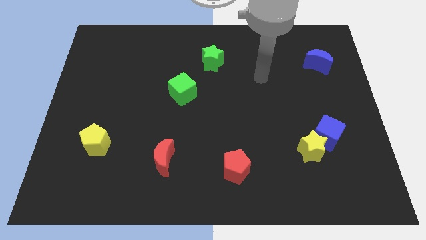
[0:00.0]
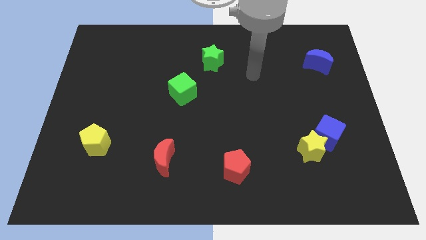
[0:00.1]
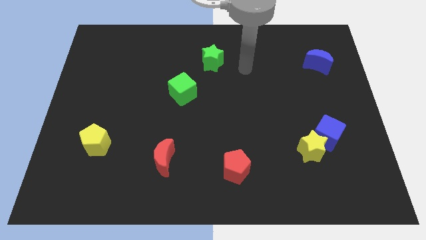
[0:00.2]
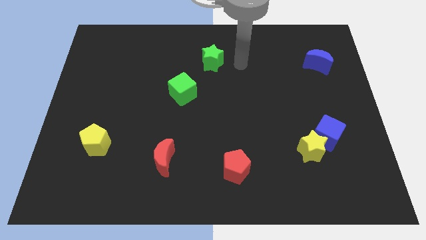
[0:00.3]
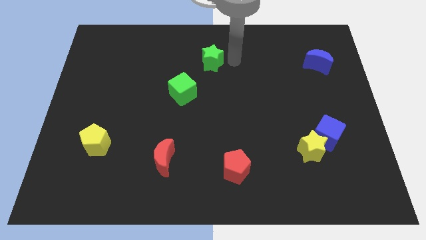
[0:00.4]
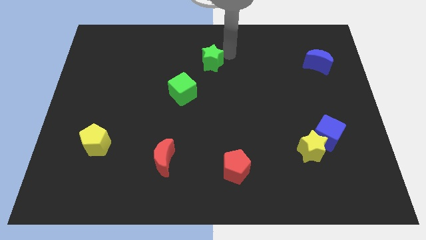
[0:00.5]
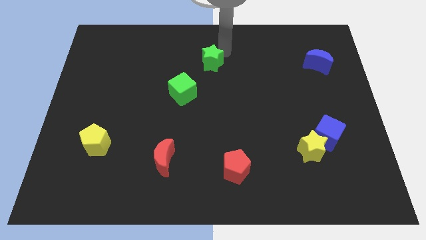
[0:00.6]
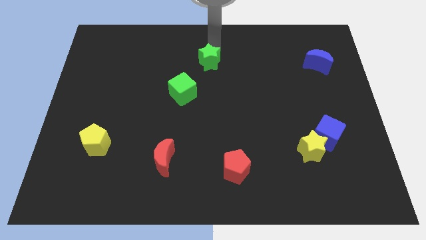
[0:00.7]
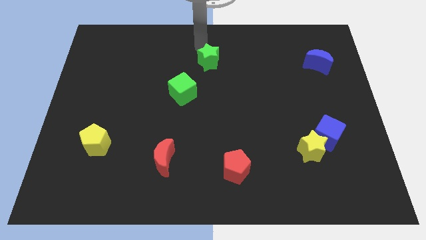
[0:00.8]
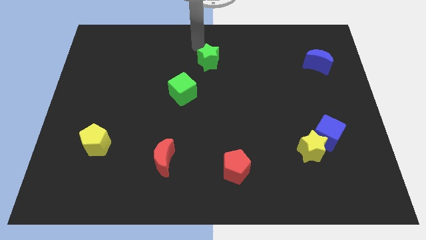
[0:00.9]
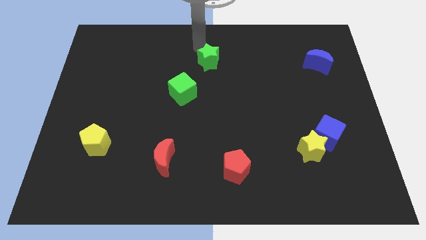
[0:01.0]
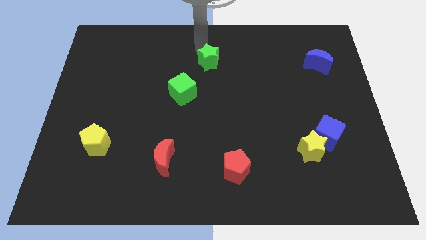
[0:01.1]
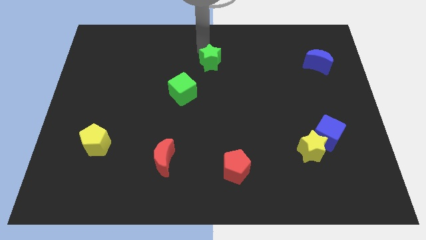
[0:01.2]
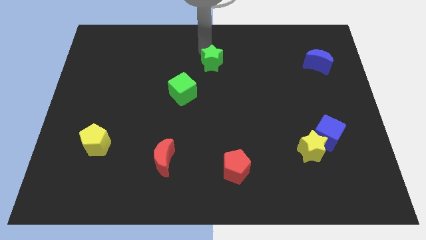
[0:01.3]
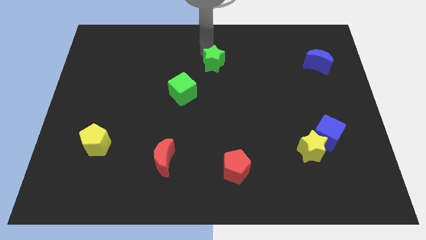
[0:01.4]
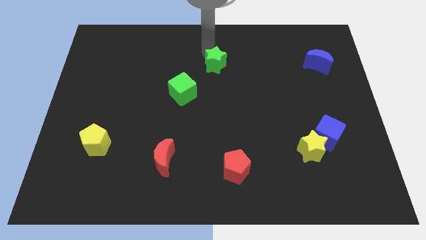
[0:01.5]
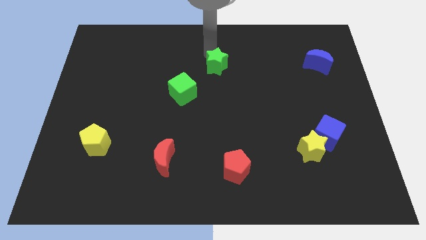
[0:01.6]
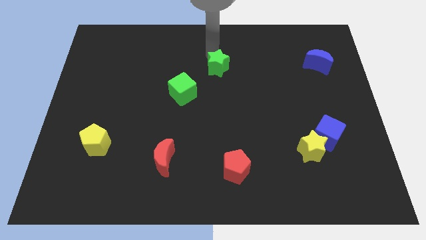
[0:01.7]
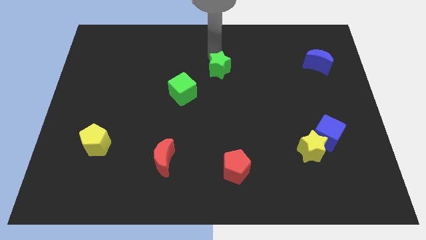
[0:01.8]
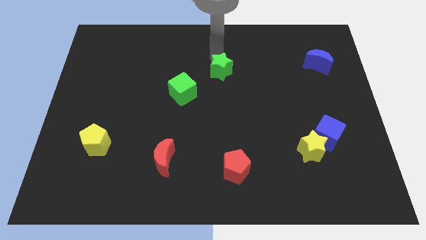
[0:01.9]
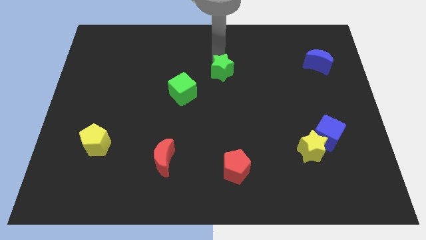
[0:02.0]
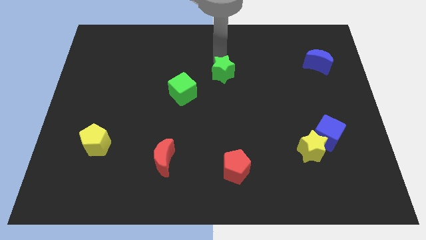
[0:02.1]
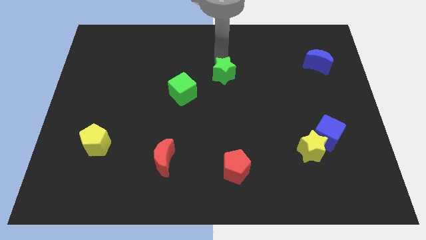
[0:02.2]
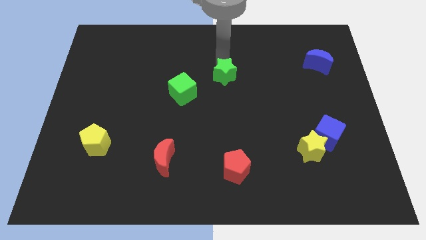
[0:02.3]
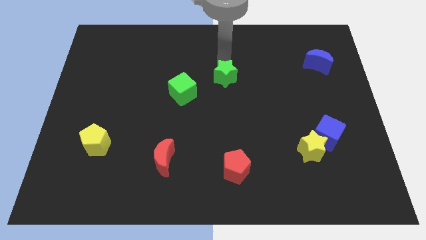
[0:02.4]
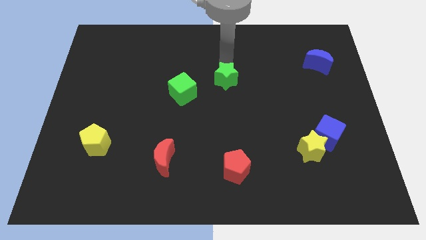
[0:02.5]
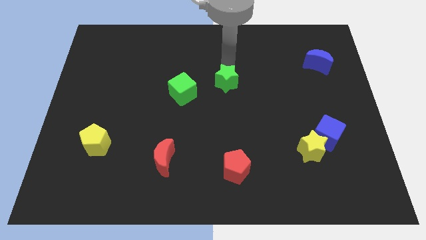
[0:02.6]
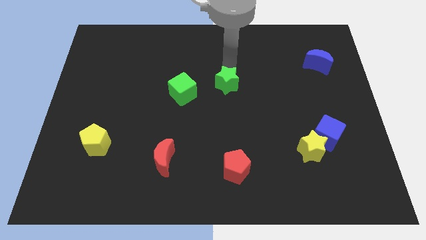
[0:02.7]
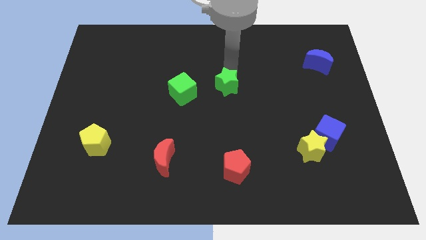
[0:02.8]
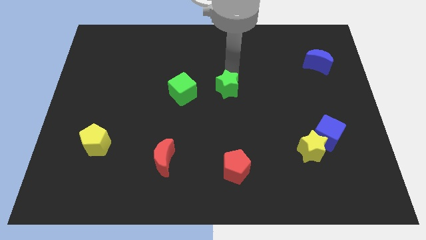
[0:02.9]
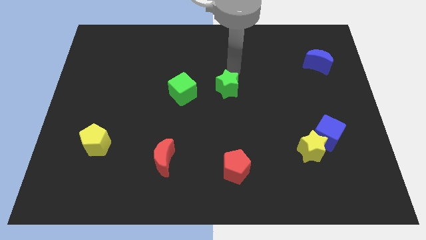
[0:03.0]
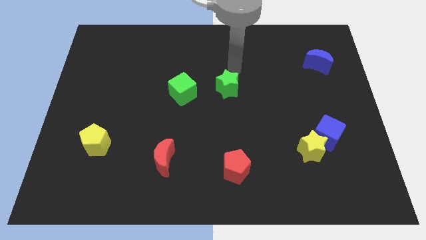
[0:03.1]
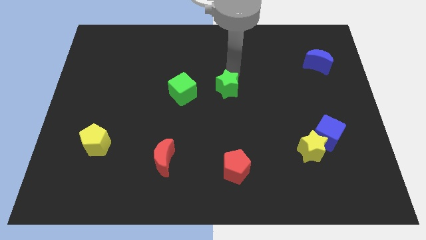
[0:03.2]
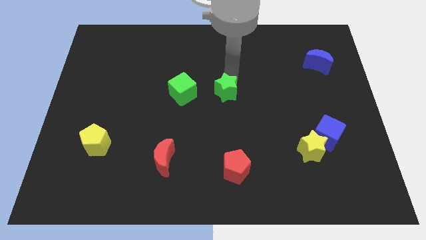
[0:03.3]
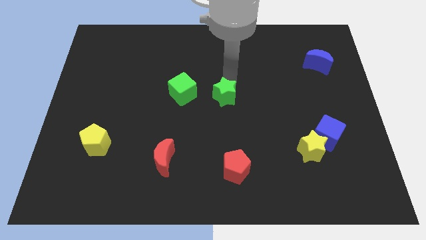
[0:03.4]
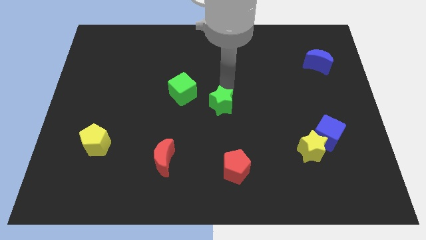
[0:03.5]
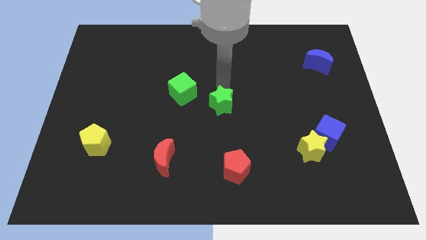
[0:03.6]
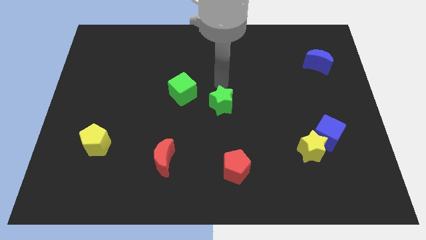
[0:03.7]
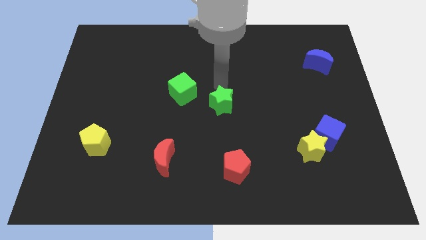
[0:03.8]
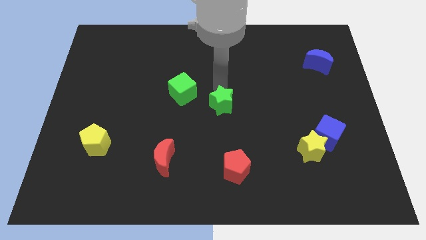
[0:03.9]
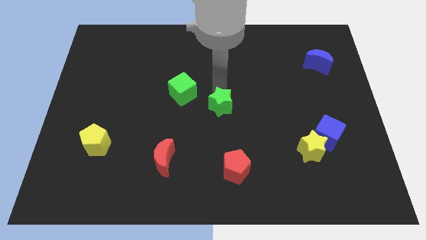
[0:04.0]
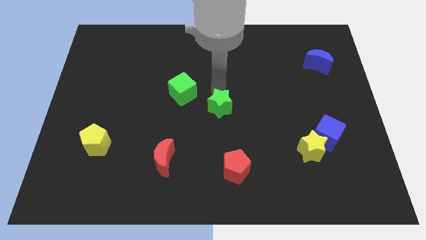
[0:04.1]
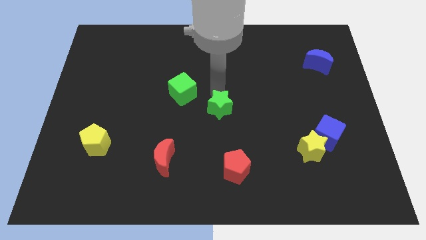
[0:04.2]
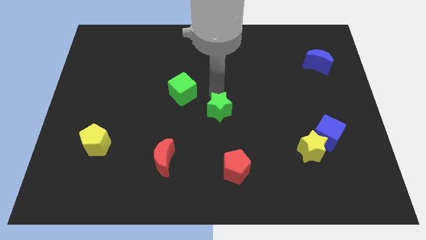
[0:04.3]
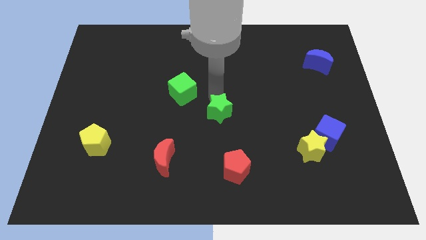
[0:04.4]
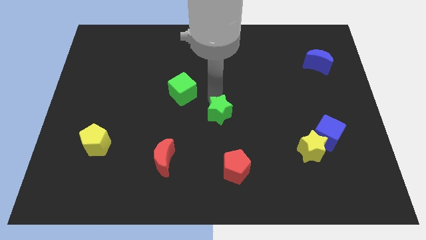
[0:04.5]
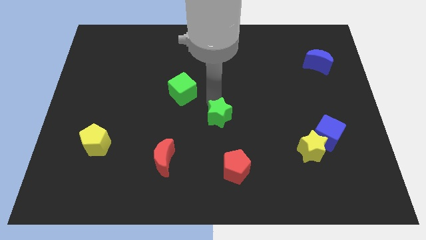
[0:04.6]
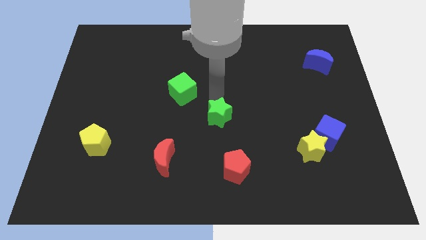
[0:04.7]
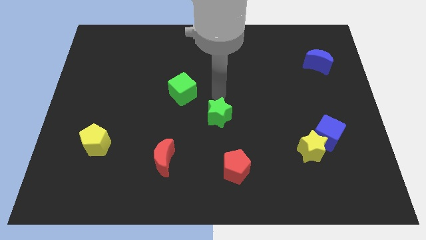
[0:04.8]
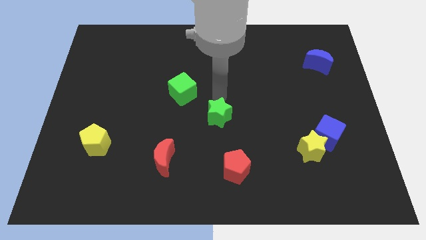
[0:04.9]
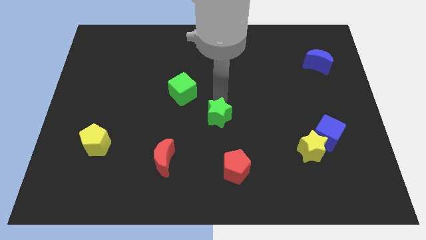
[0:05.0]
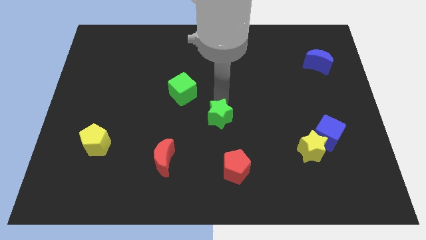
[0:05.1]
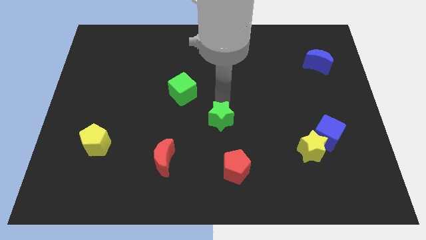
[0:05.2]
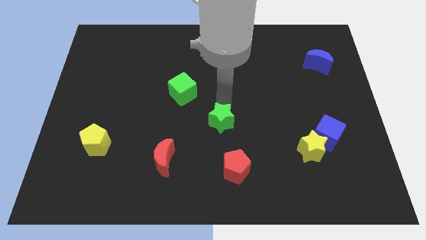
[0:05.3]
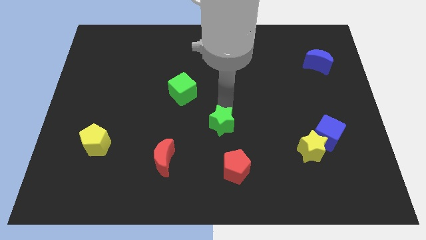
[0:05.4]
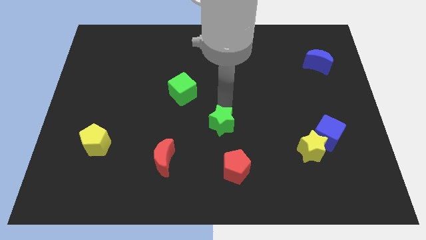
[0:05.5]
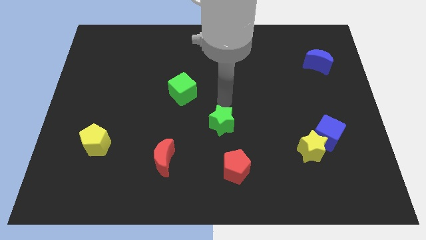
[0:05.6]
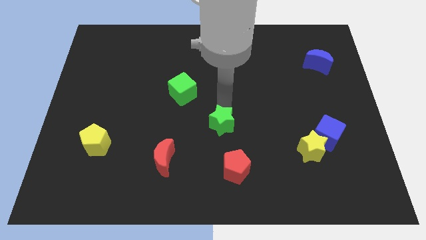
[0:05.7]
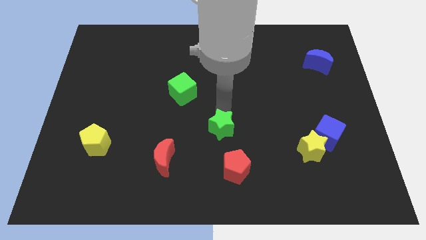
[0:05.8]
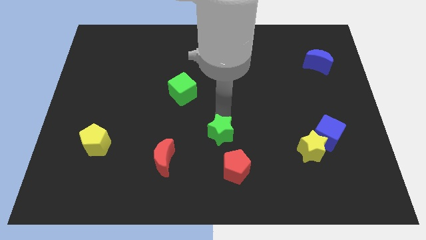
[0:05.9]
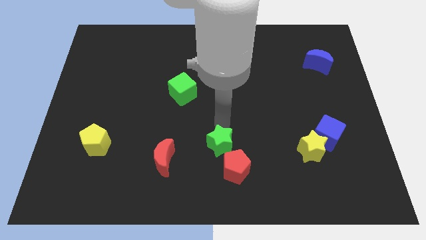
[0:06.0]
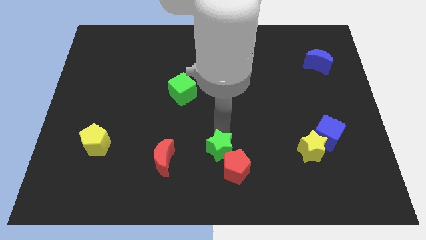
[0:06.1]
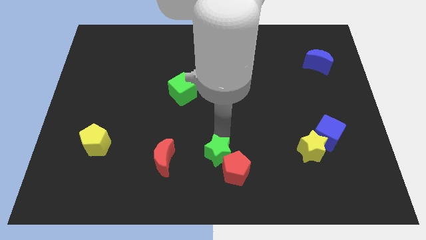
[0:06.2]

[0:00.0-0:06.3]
move the green star to the bottom side

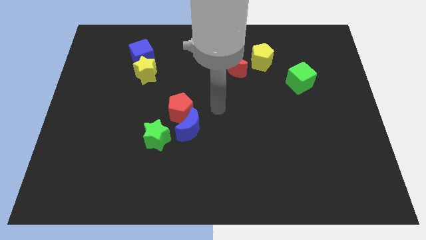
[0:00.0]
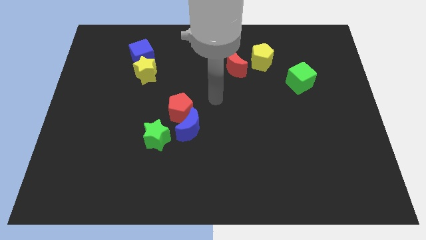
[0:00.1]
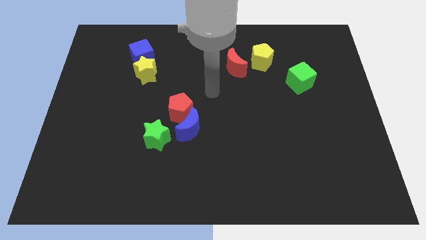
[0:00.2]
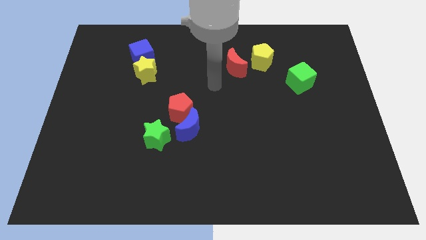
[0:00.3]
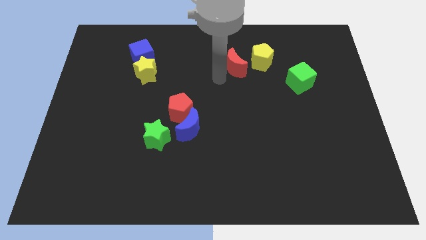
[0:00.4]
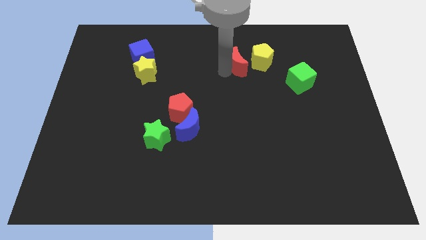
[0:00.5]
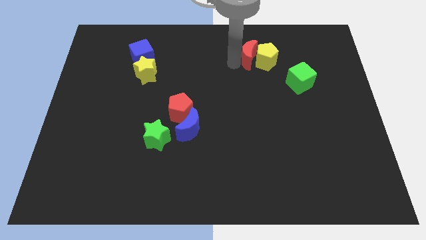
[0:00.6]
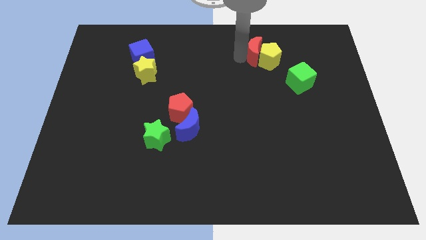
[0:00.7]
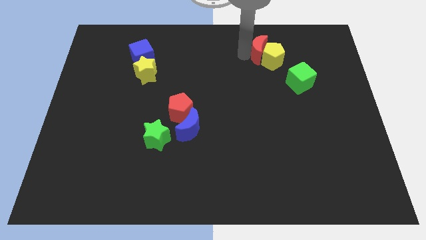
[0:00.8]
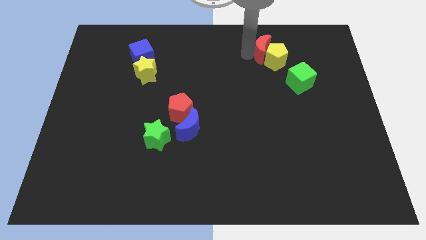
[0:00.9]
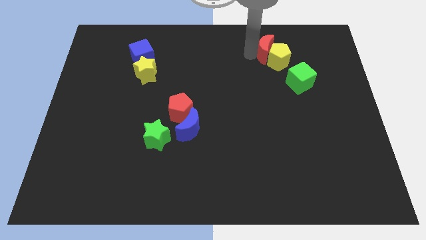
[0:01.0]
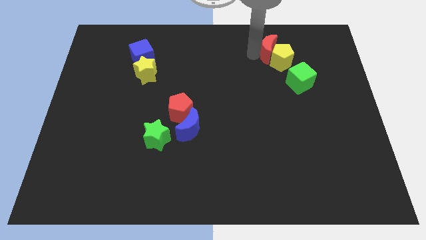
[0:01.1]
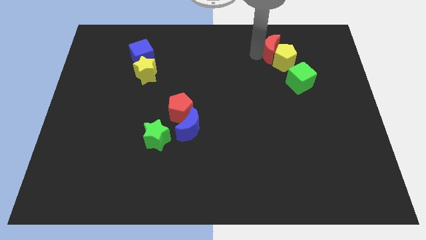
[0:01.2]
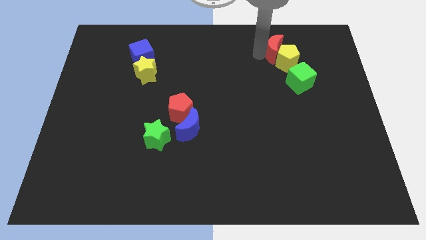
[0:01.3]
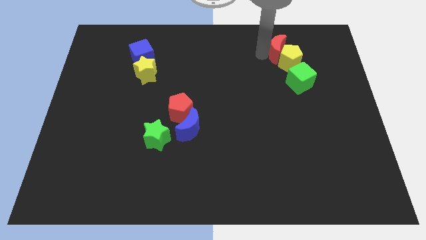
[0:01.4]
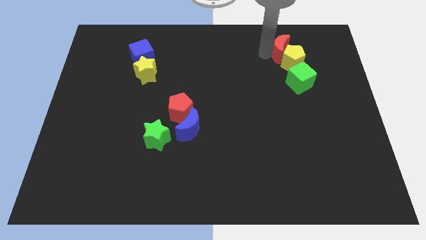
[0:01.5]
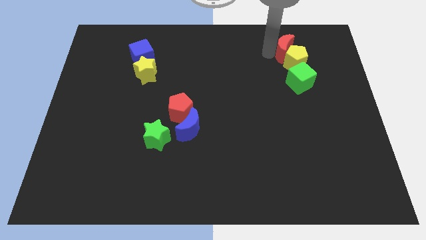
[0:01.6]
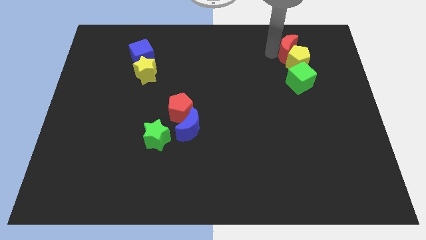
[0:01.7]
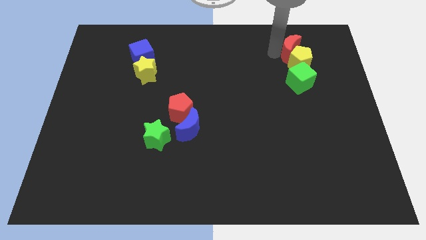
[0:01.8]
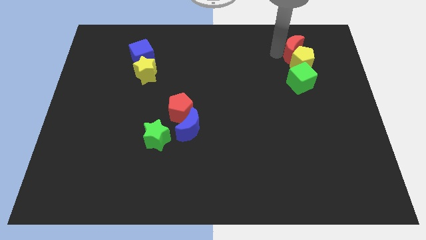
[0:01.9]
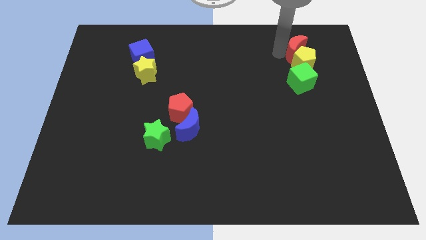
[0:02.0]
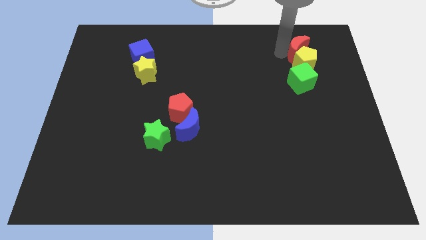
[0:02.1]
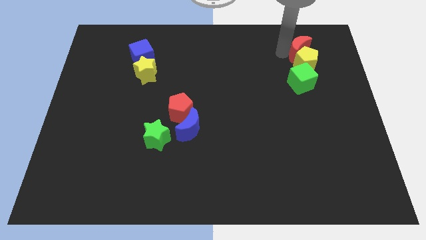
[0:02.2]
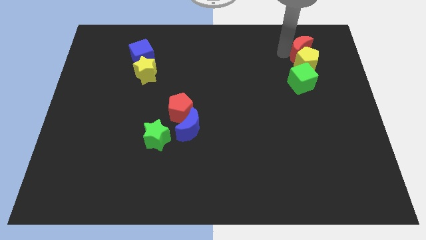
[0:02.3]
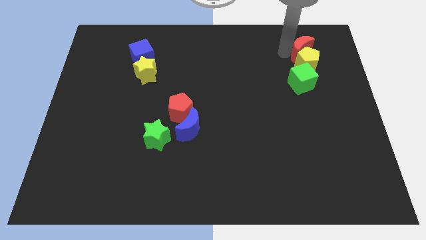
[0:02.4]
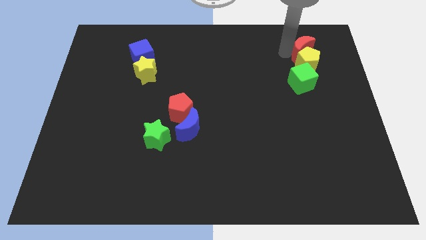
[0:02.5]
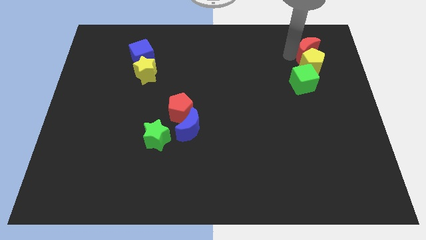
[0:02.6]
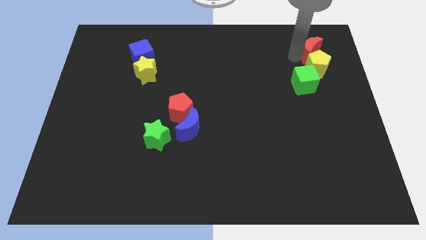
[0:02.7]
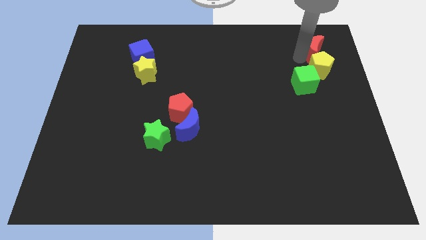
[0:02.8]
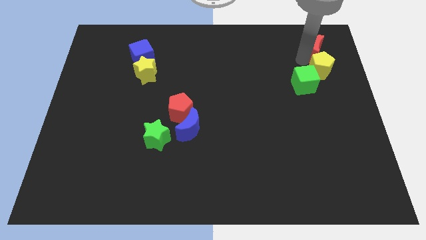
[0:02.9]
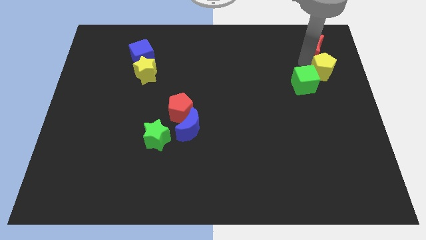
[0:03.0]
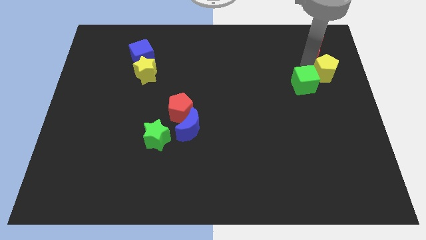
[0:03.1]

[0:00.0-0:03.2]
slide the yellow pentagon to the right side
